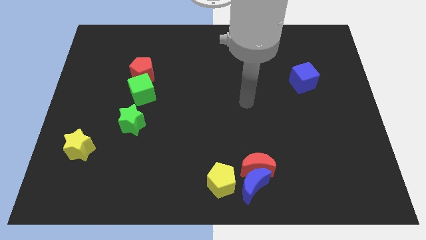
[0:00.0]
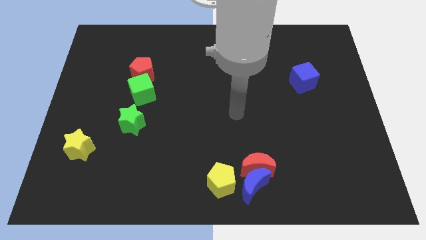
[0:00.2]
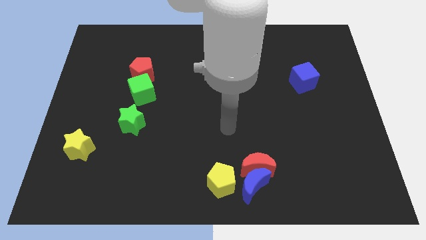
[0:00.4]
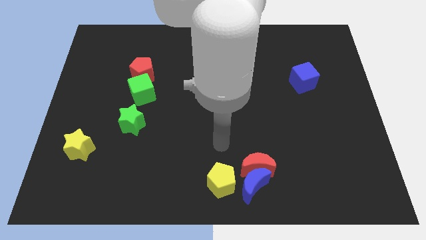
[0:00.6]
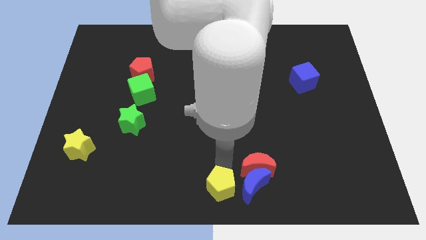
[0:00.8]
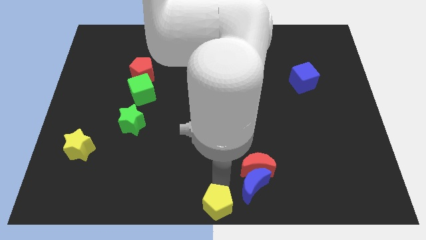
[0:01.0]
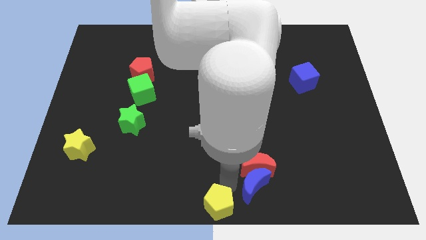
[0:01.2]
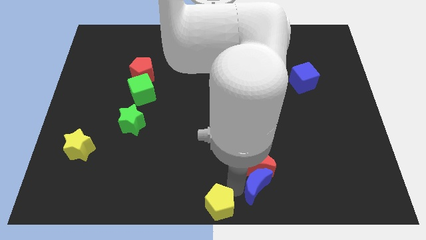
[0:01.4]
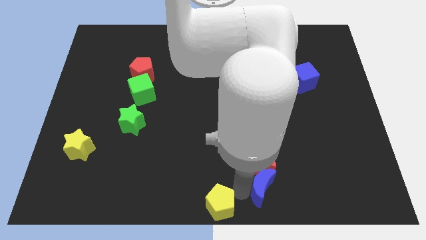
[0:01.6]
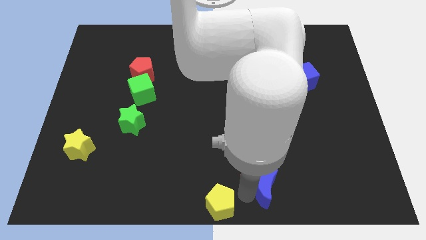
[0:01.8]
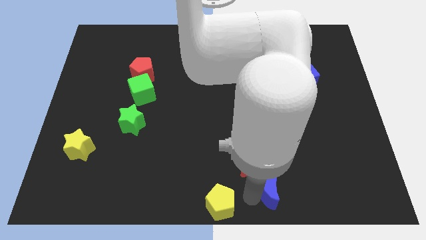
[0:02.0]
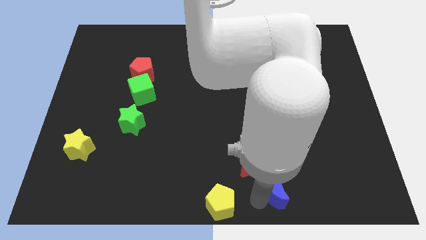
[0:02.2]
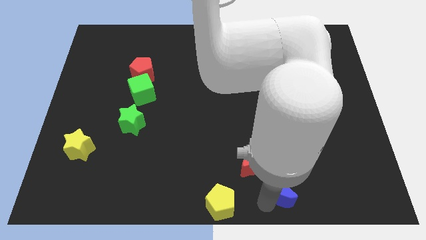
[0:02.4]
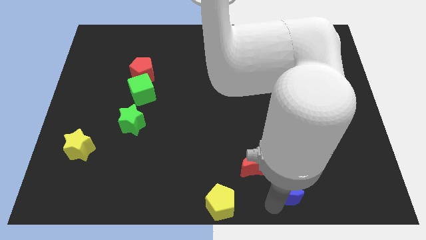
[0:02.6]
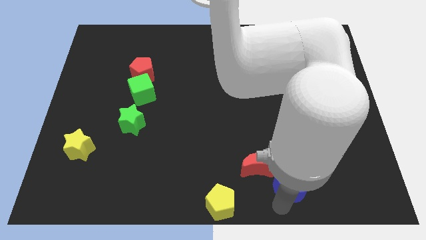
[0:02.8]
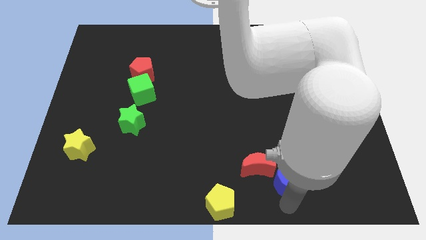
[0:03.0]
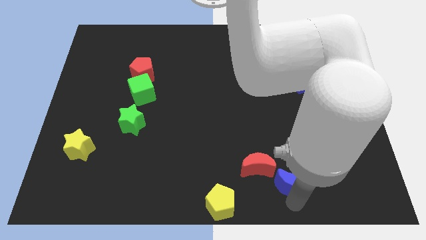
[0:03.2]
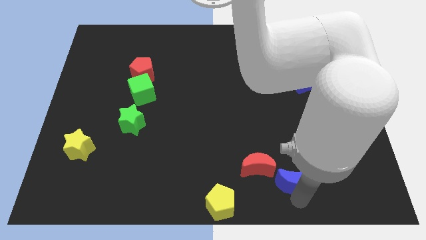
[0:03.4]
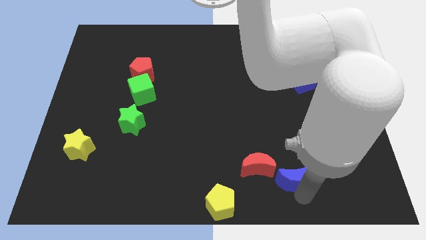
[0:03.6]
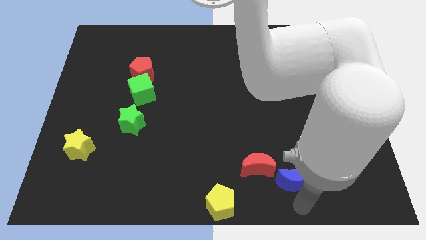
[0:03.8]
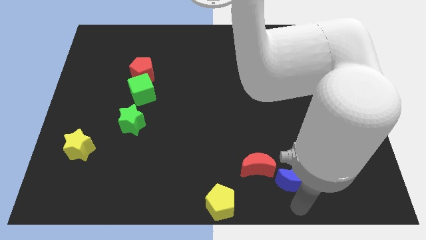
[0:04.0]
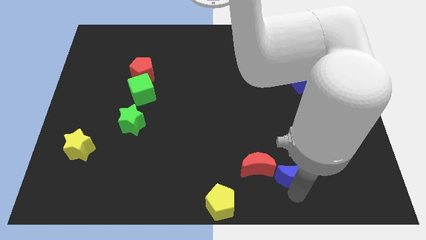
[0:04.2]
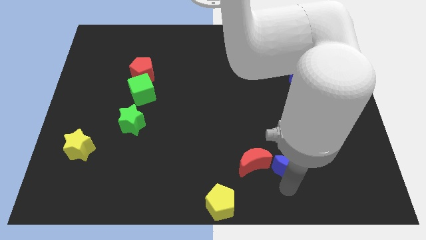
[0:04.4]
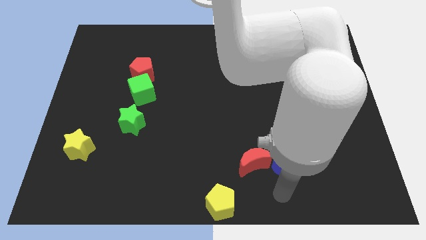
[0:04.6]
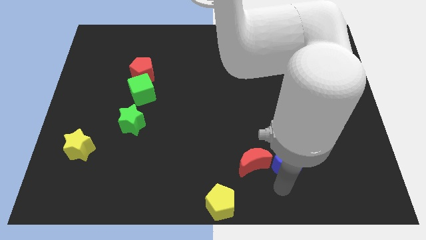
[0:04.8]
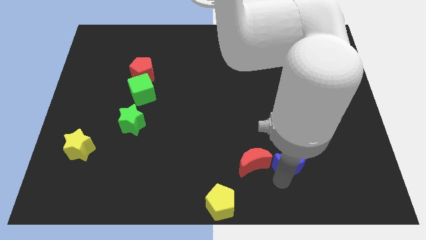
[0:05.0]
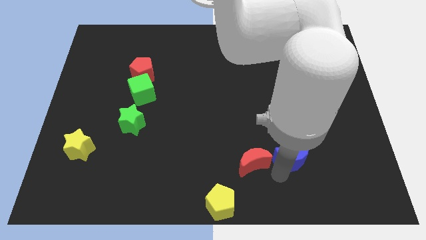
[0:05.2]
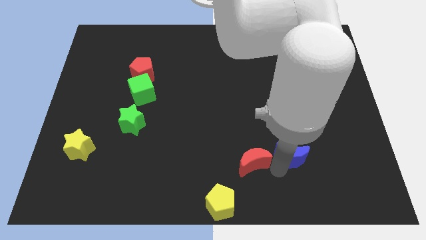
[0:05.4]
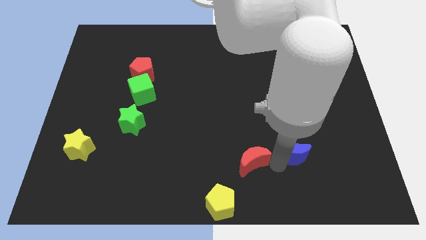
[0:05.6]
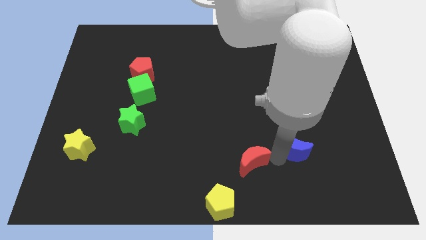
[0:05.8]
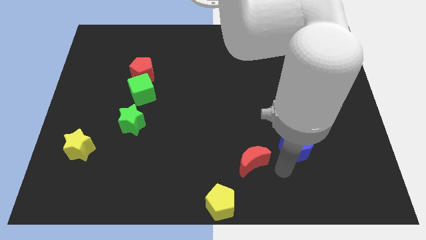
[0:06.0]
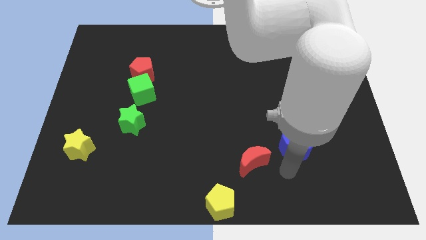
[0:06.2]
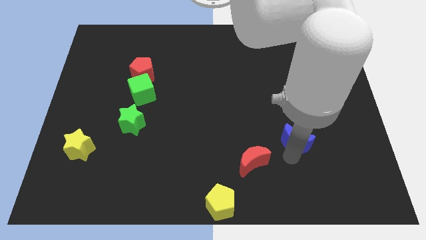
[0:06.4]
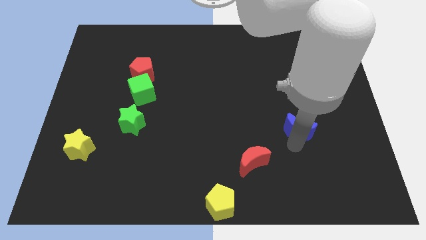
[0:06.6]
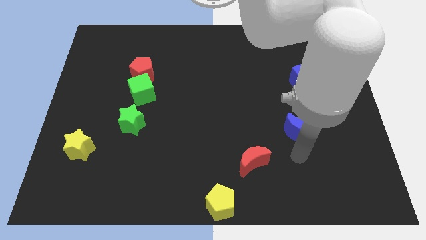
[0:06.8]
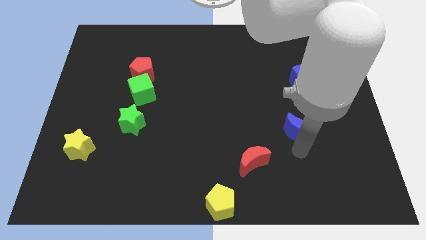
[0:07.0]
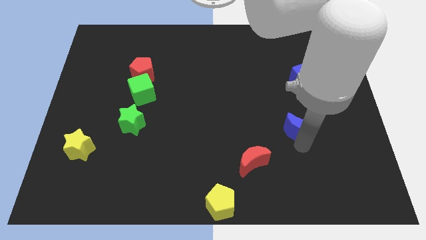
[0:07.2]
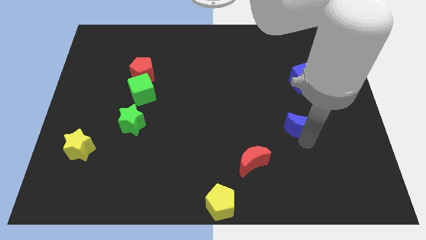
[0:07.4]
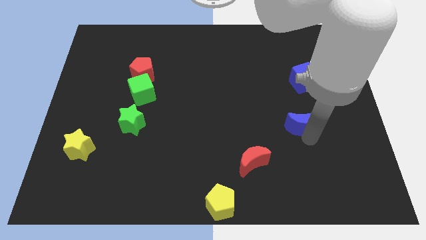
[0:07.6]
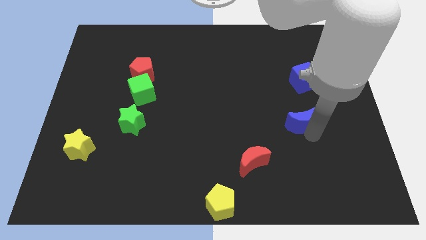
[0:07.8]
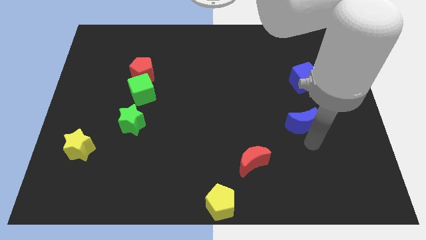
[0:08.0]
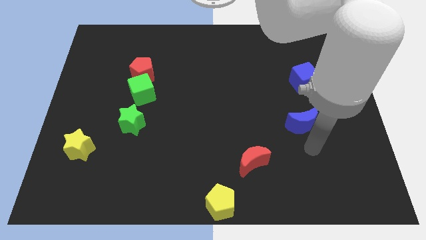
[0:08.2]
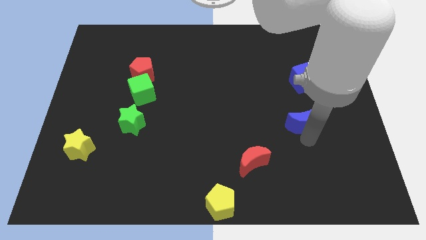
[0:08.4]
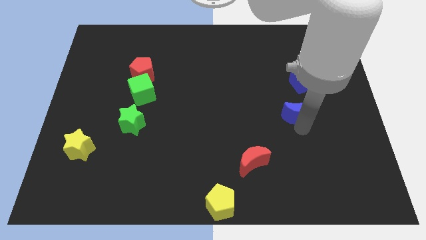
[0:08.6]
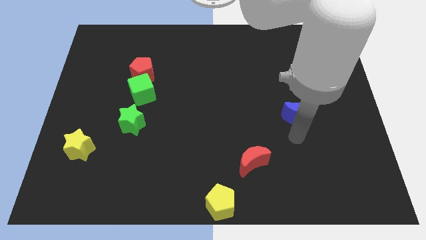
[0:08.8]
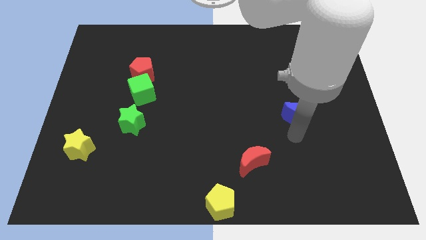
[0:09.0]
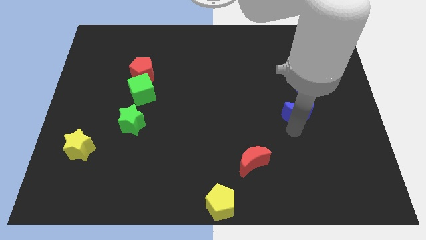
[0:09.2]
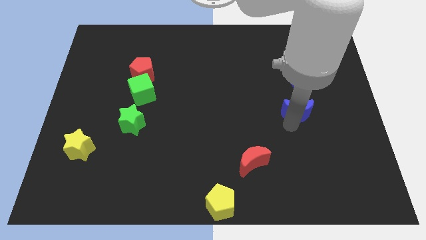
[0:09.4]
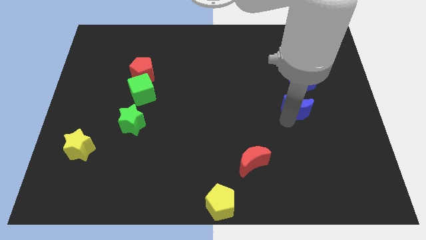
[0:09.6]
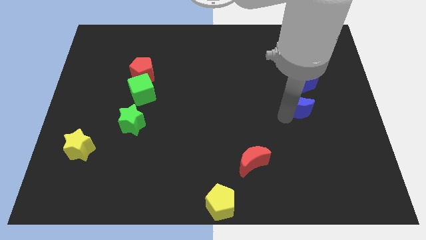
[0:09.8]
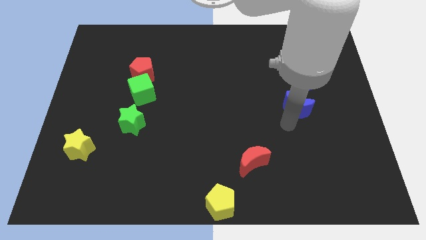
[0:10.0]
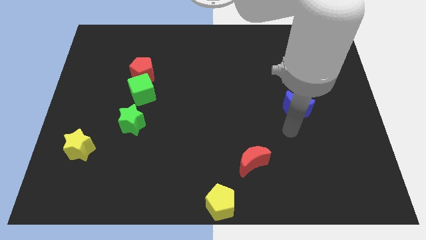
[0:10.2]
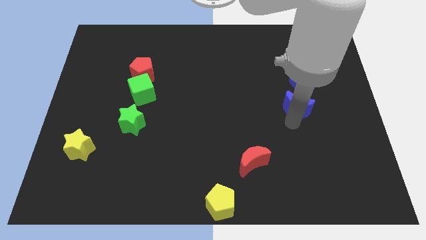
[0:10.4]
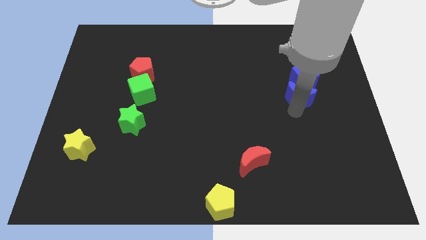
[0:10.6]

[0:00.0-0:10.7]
put the blue moon close to the blue cube
